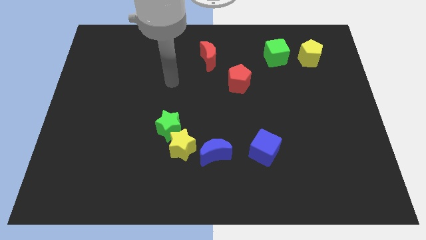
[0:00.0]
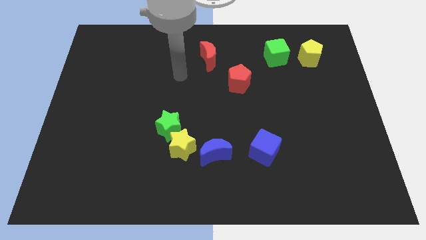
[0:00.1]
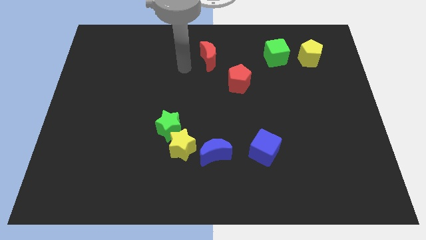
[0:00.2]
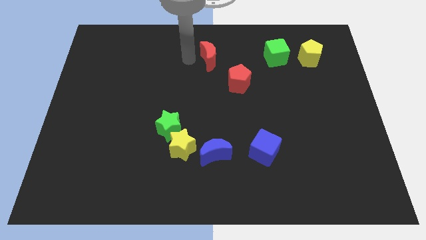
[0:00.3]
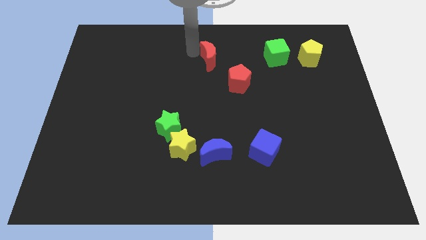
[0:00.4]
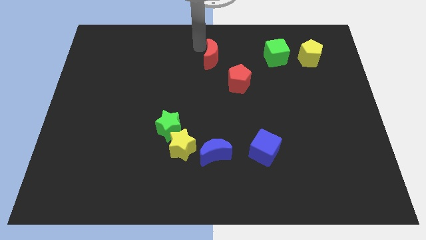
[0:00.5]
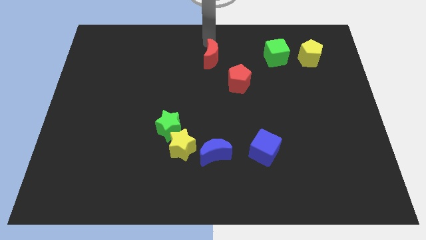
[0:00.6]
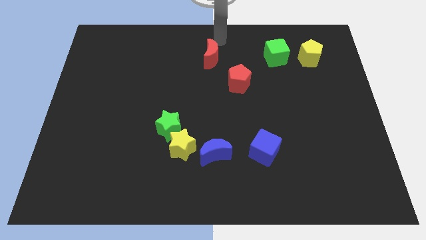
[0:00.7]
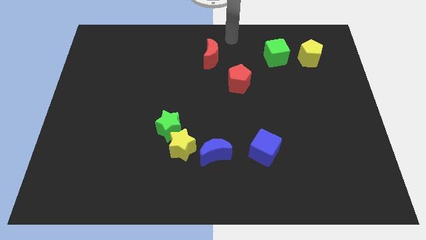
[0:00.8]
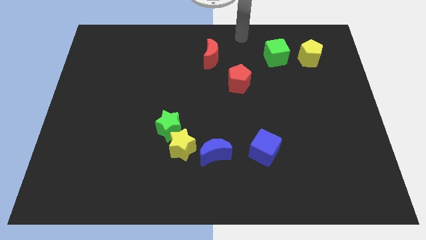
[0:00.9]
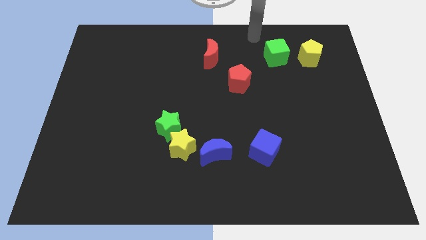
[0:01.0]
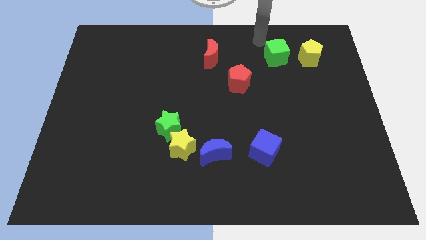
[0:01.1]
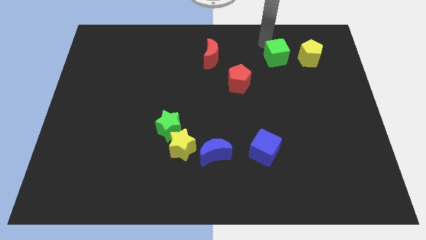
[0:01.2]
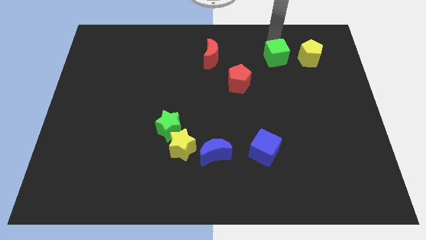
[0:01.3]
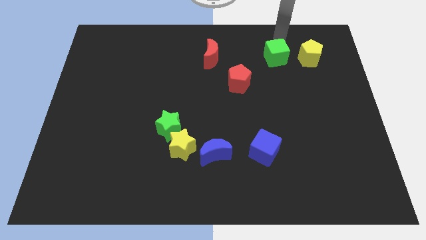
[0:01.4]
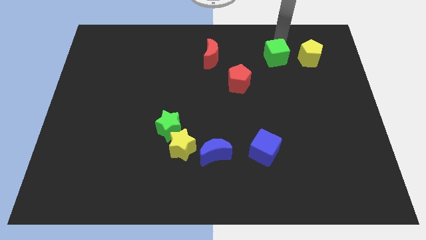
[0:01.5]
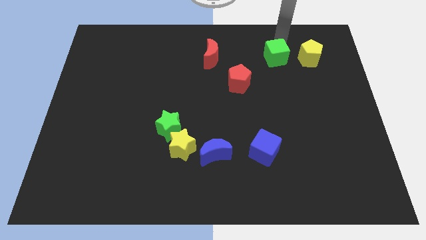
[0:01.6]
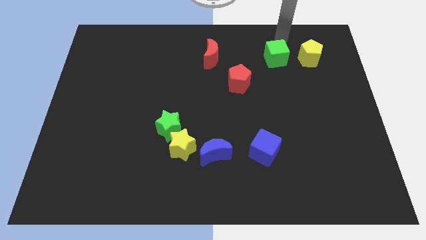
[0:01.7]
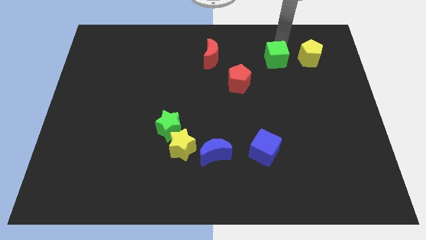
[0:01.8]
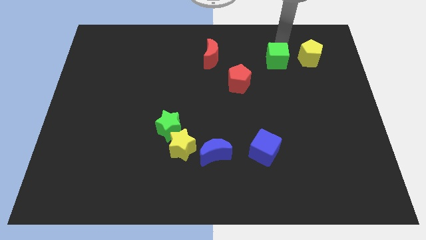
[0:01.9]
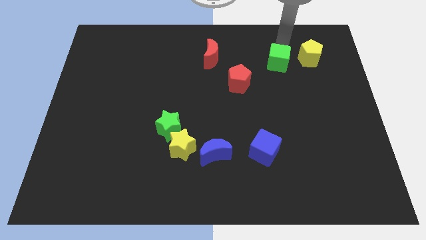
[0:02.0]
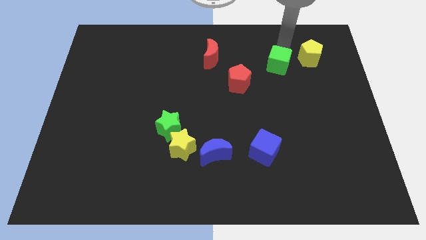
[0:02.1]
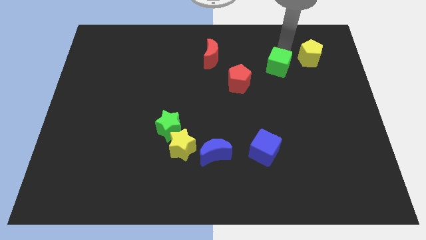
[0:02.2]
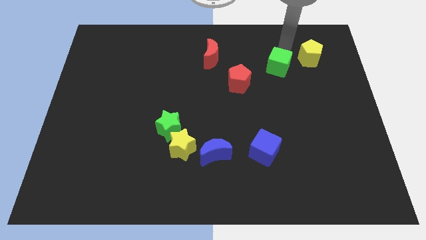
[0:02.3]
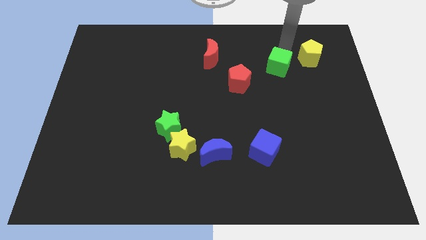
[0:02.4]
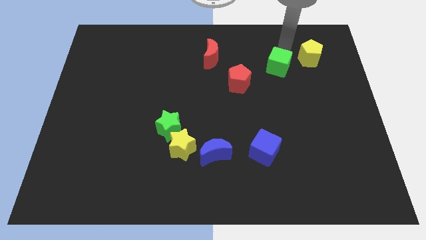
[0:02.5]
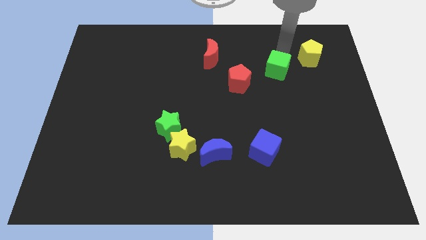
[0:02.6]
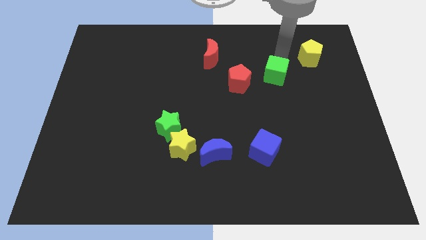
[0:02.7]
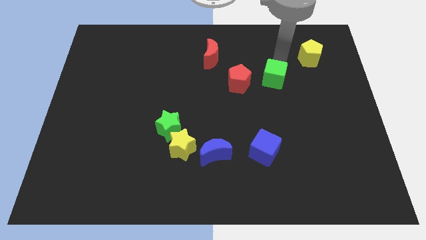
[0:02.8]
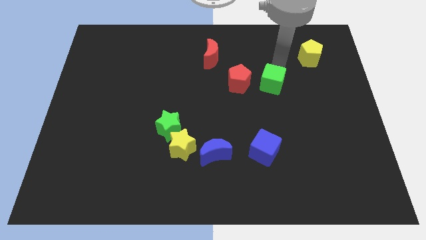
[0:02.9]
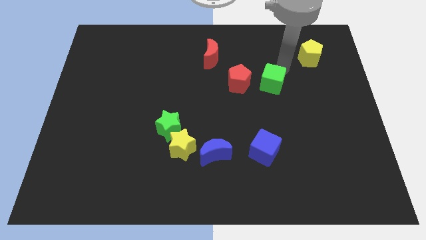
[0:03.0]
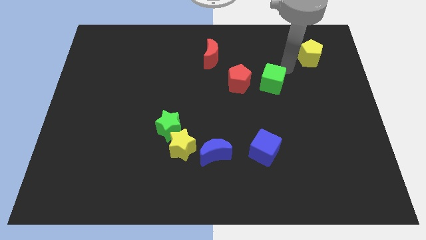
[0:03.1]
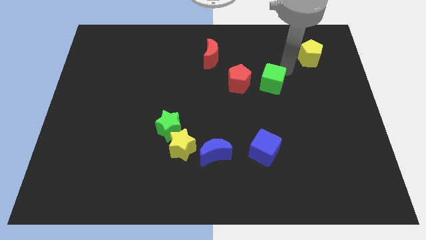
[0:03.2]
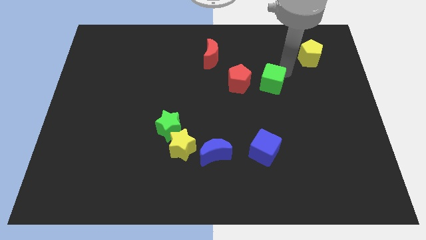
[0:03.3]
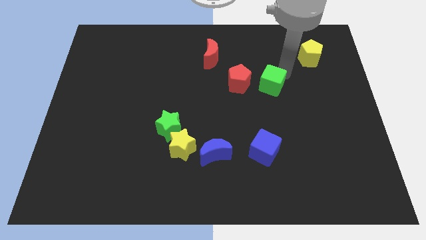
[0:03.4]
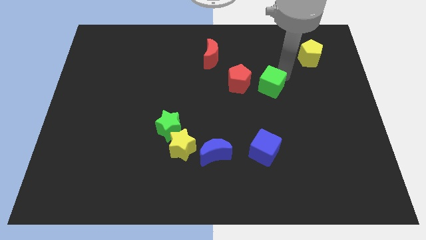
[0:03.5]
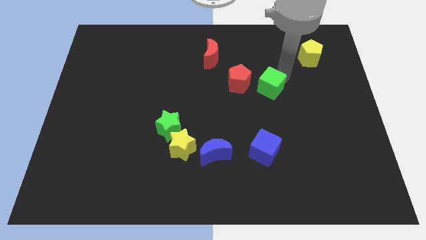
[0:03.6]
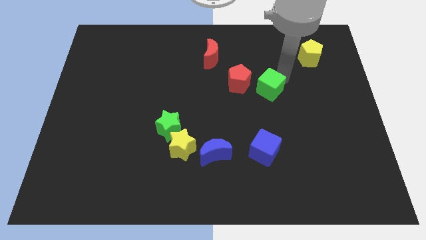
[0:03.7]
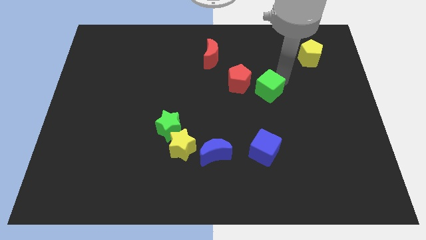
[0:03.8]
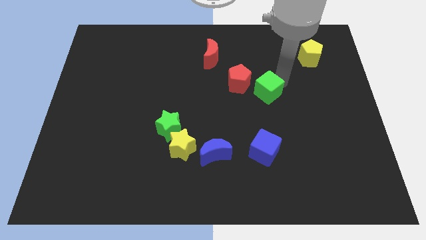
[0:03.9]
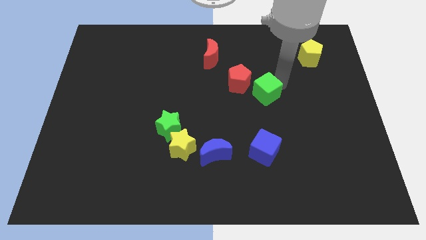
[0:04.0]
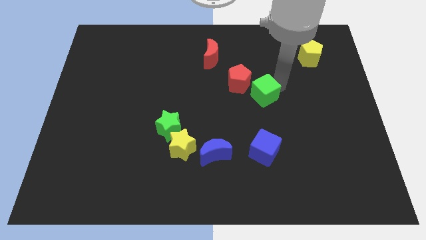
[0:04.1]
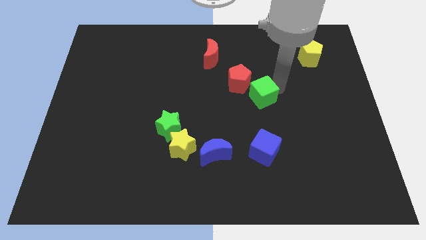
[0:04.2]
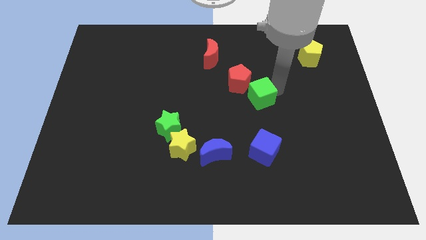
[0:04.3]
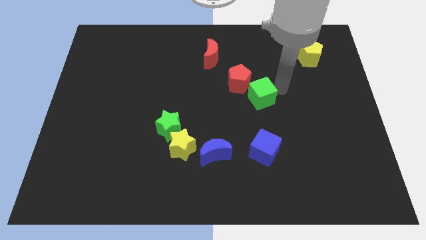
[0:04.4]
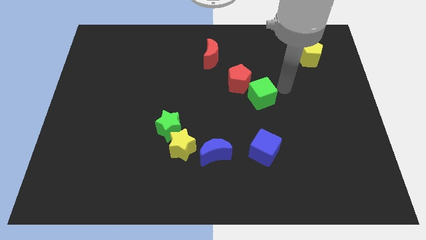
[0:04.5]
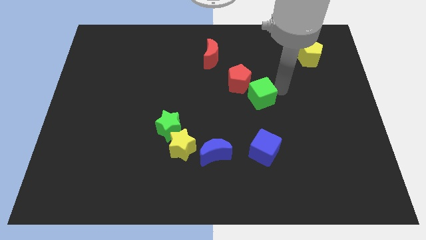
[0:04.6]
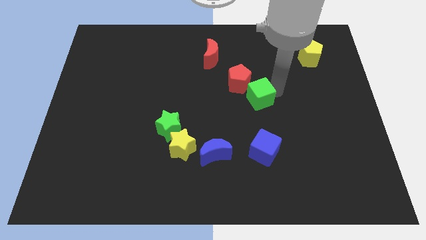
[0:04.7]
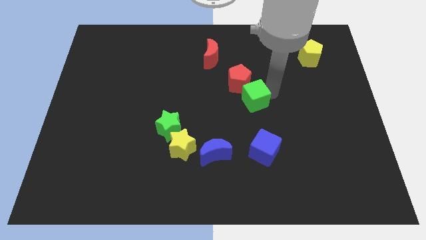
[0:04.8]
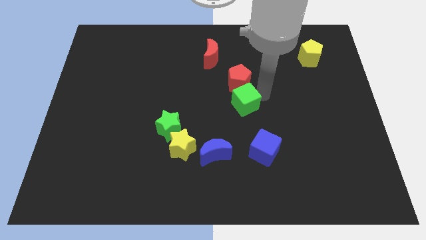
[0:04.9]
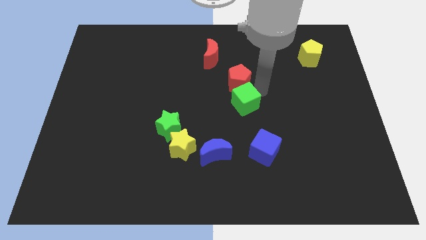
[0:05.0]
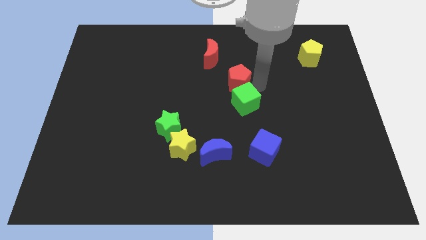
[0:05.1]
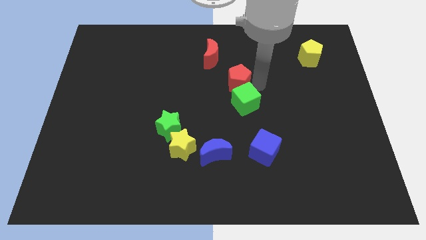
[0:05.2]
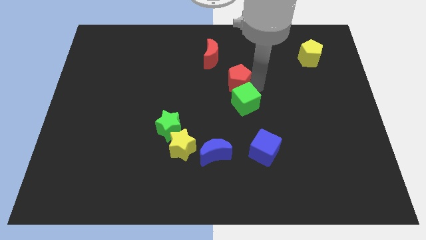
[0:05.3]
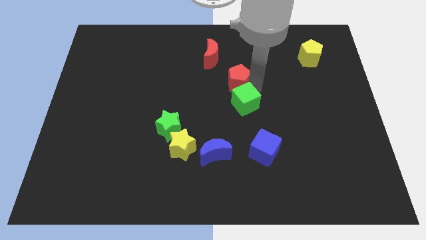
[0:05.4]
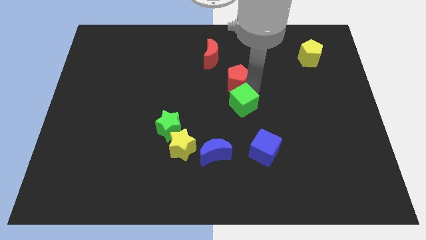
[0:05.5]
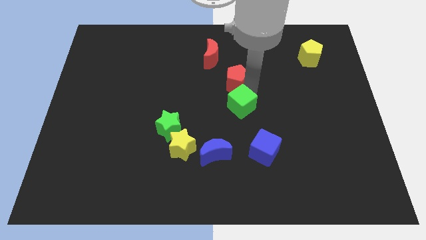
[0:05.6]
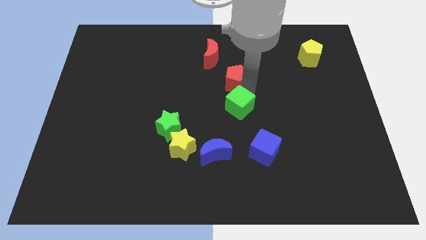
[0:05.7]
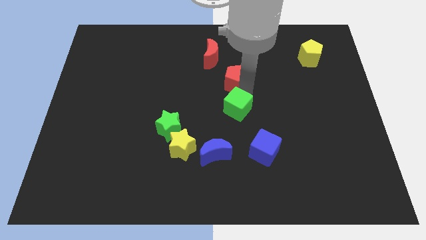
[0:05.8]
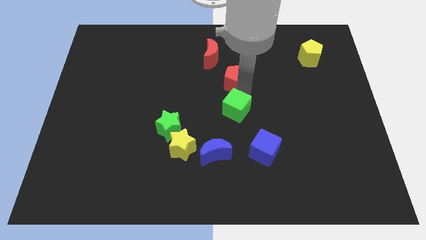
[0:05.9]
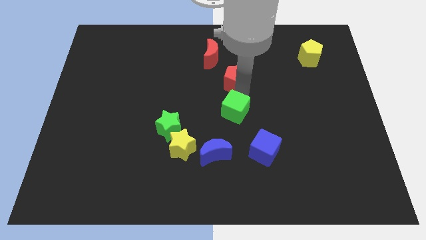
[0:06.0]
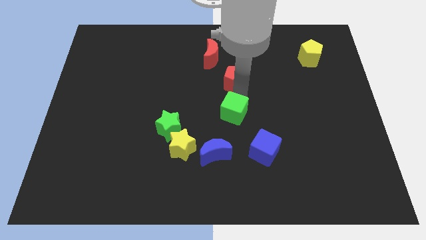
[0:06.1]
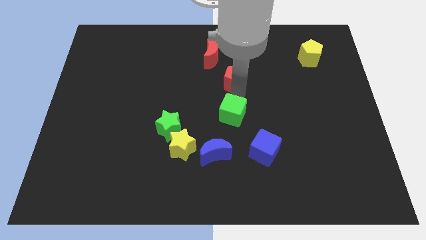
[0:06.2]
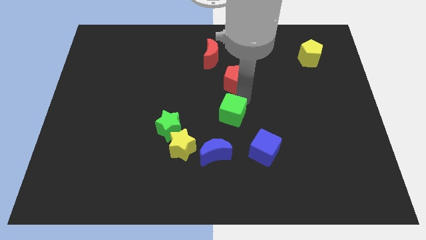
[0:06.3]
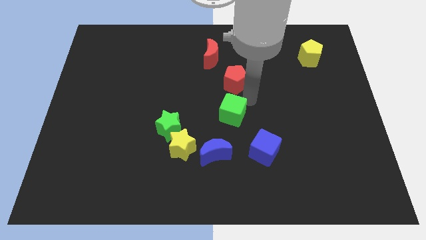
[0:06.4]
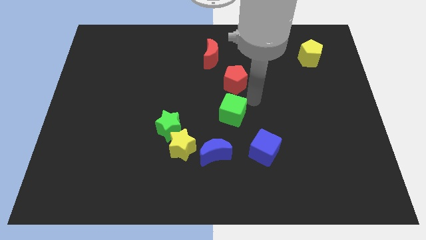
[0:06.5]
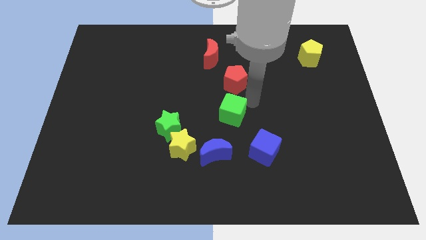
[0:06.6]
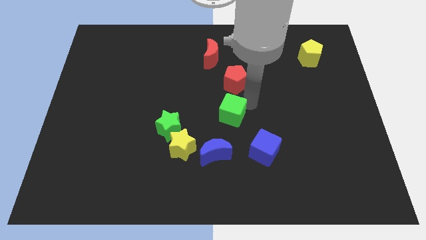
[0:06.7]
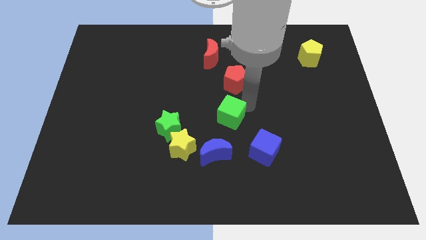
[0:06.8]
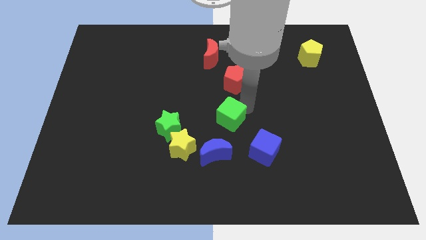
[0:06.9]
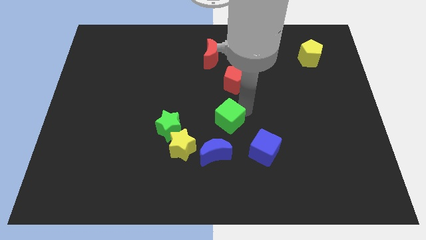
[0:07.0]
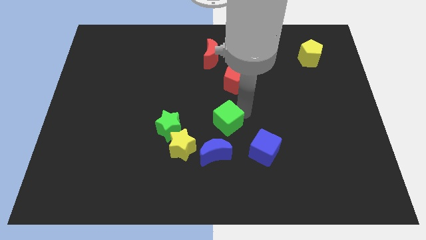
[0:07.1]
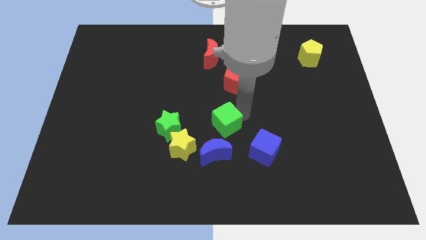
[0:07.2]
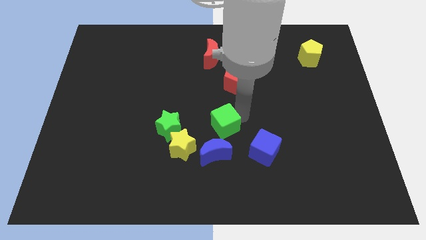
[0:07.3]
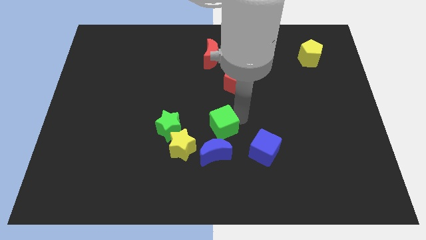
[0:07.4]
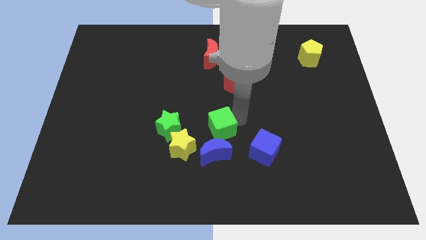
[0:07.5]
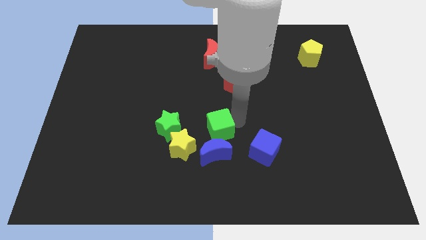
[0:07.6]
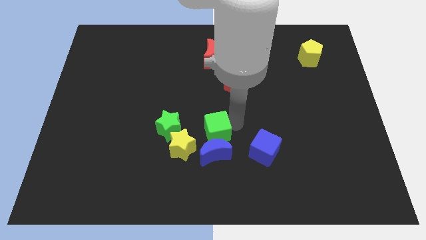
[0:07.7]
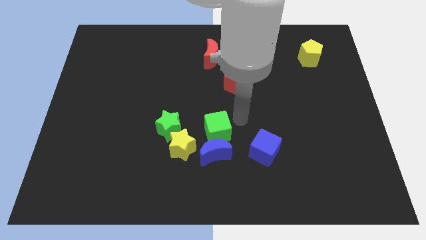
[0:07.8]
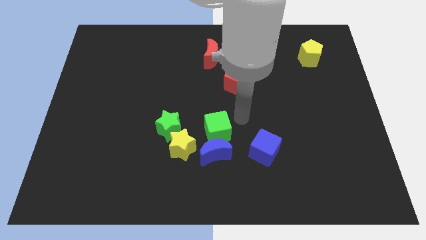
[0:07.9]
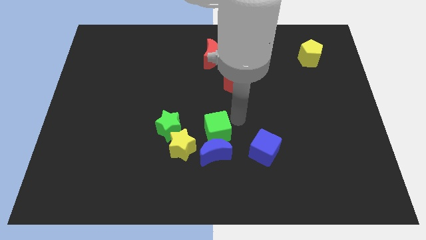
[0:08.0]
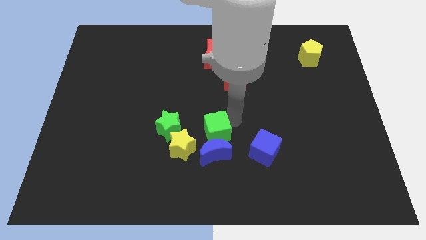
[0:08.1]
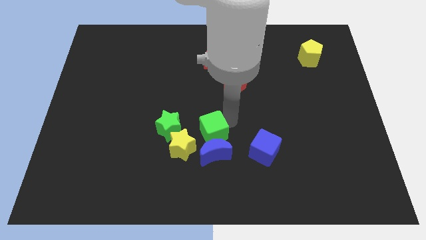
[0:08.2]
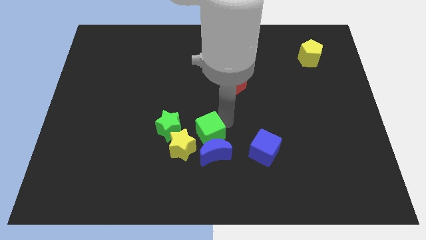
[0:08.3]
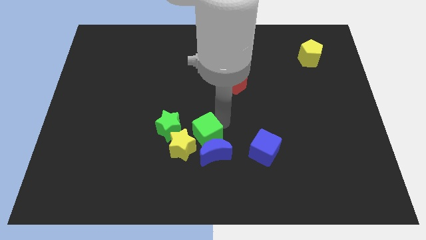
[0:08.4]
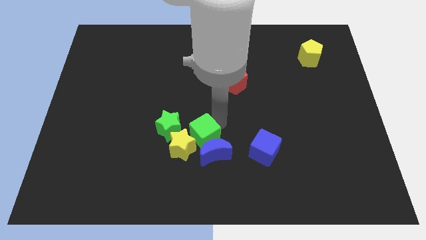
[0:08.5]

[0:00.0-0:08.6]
put the green cube next to the yellow star
